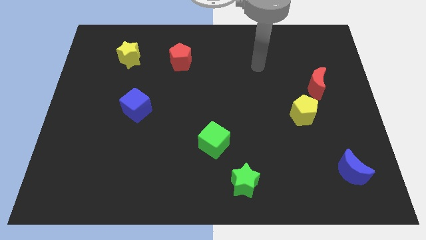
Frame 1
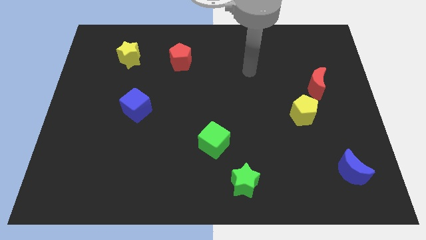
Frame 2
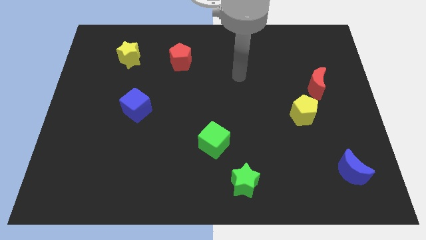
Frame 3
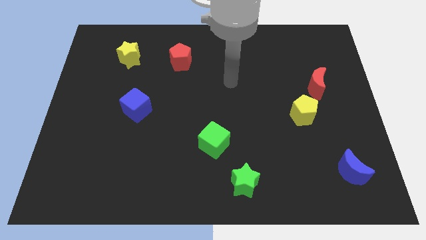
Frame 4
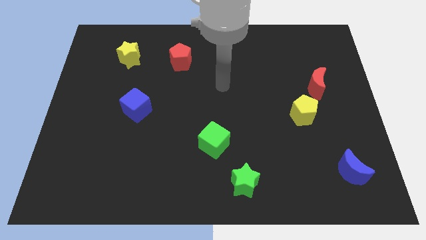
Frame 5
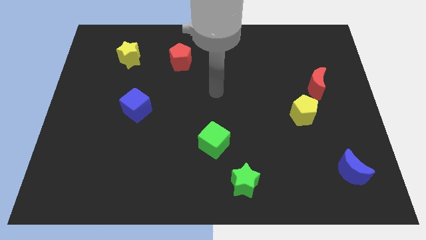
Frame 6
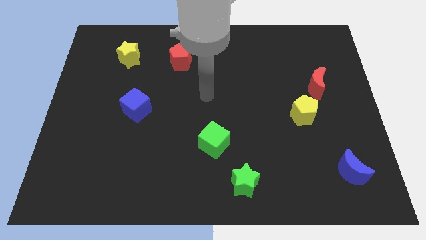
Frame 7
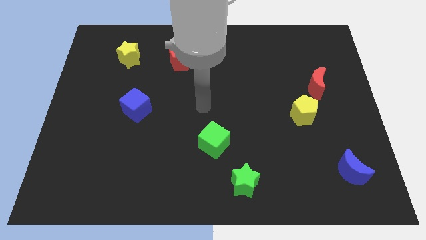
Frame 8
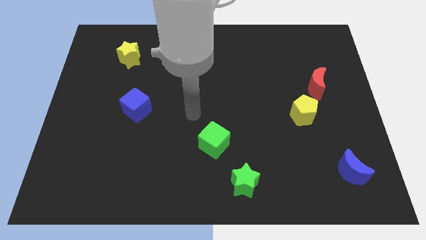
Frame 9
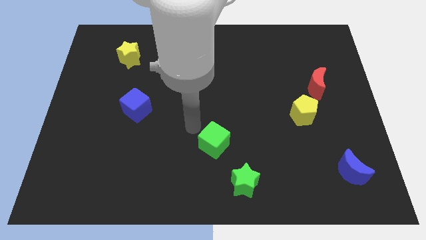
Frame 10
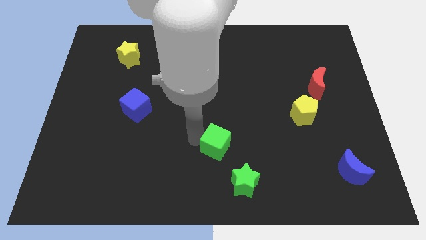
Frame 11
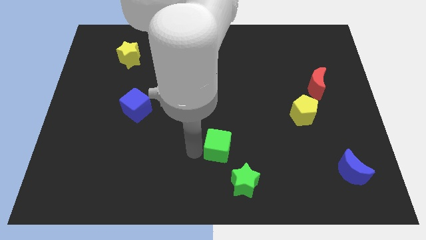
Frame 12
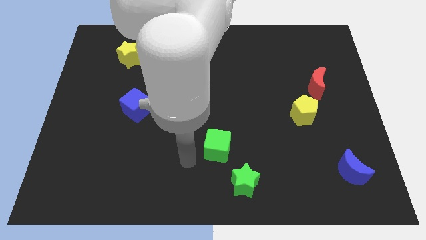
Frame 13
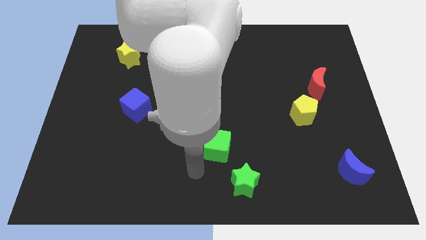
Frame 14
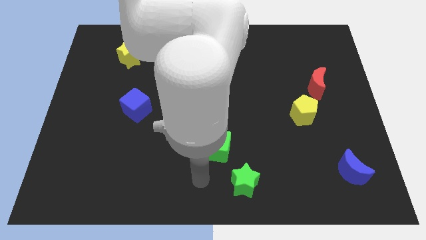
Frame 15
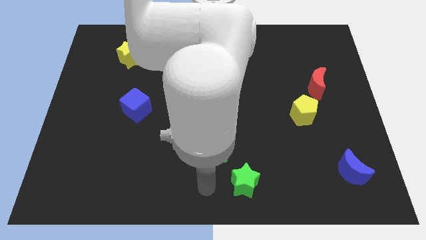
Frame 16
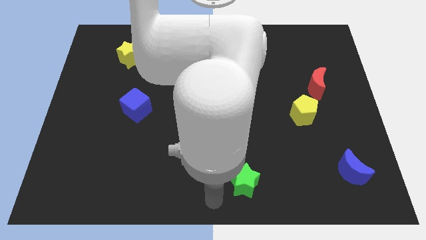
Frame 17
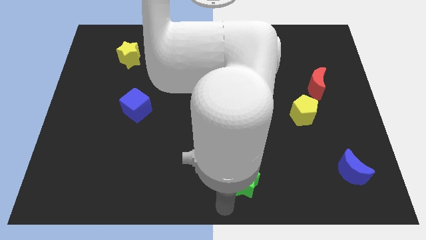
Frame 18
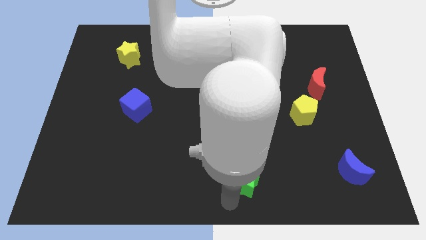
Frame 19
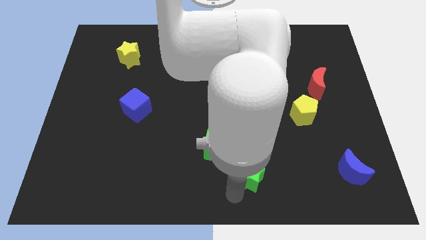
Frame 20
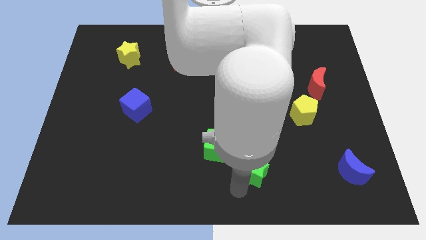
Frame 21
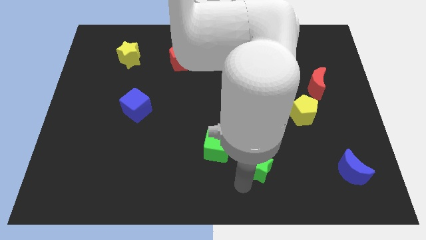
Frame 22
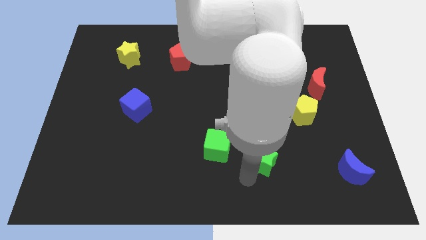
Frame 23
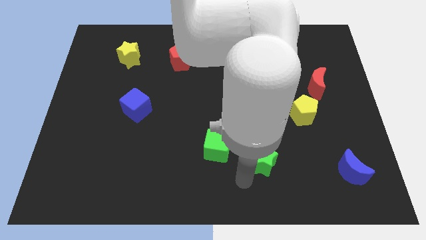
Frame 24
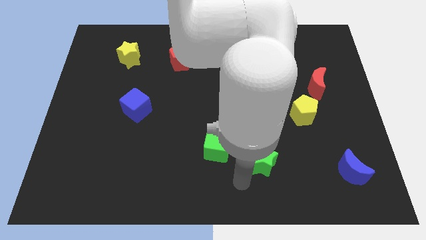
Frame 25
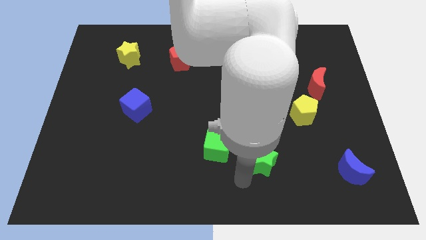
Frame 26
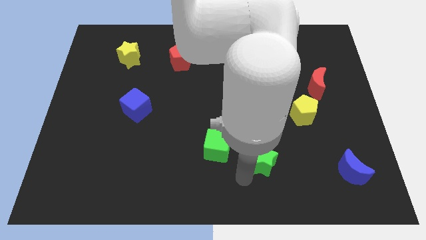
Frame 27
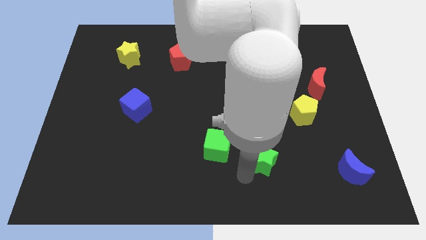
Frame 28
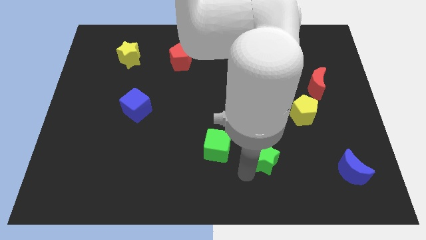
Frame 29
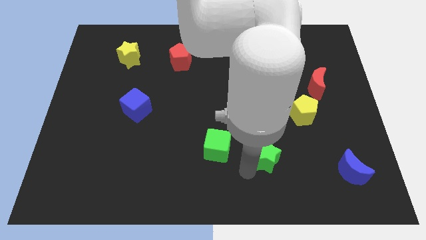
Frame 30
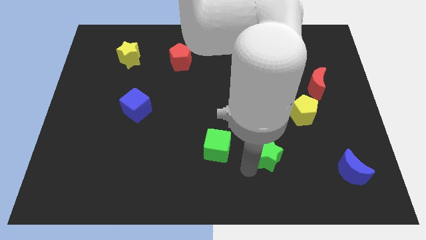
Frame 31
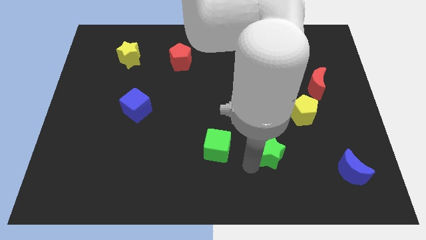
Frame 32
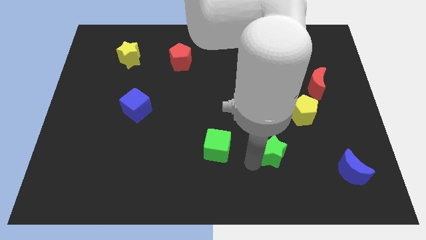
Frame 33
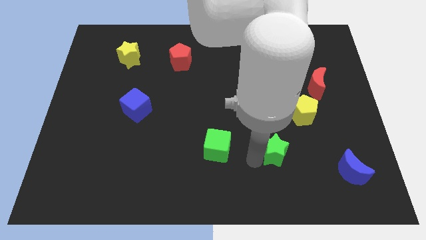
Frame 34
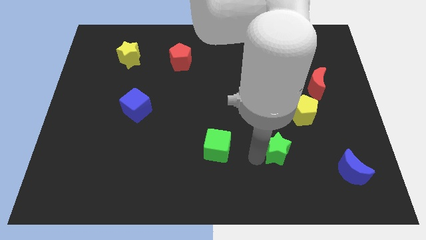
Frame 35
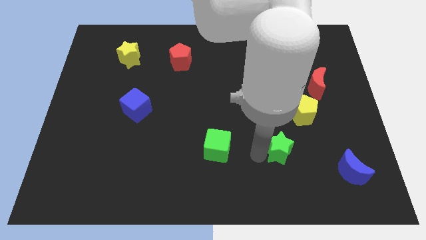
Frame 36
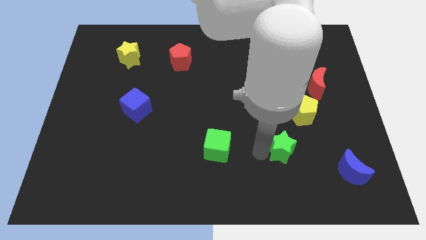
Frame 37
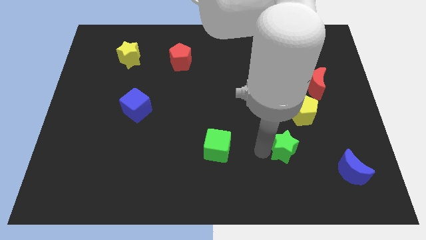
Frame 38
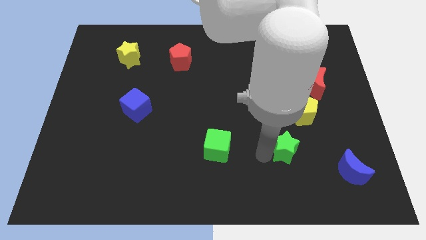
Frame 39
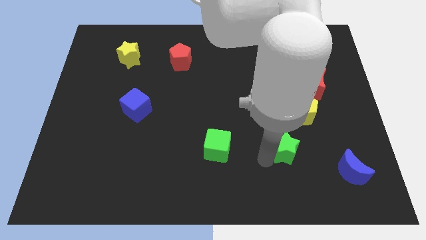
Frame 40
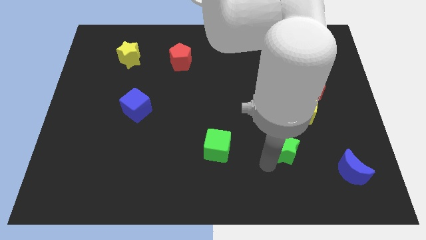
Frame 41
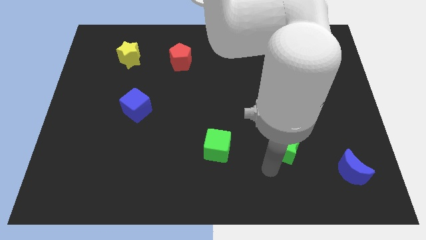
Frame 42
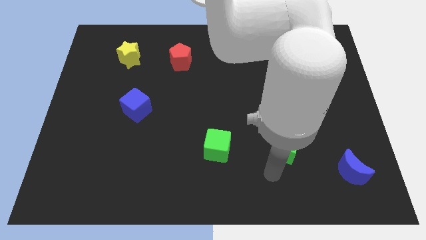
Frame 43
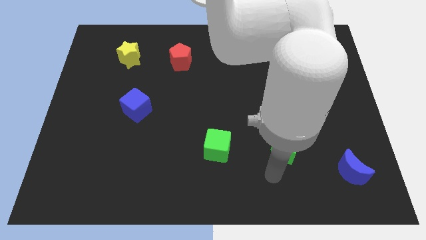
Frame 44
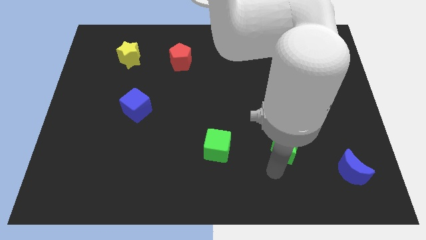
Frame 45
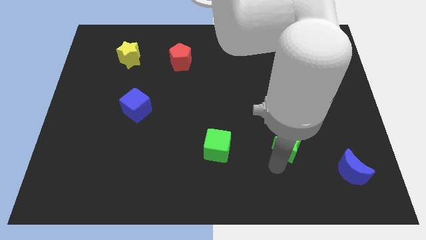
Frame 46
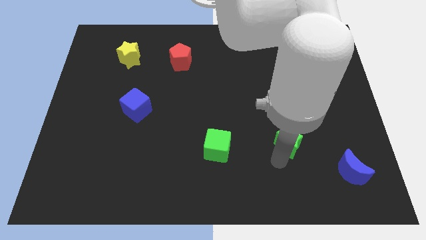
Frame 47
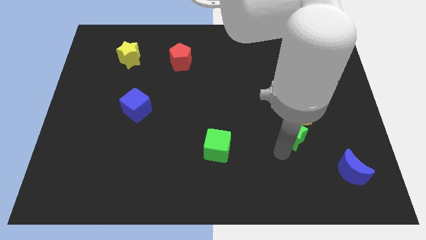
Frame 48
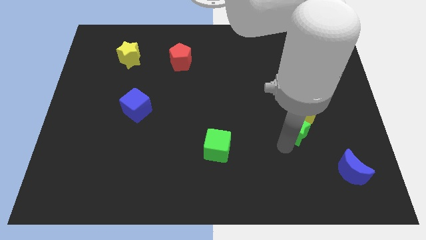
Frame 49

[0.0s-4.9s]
put the green star close to the yellow pentagon

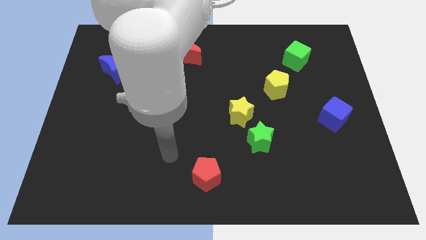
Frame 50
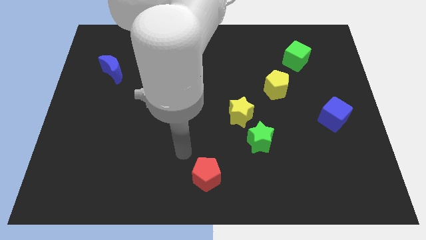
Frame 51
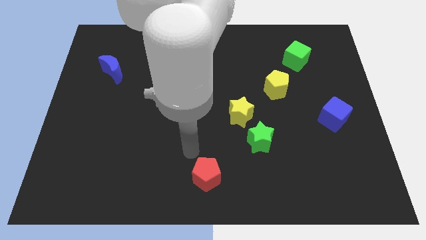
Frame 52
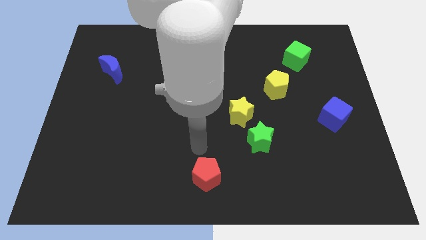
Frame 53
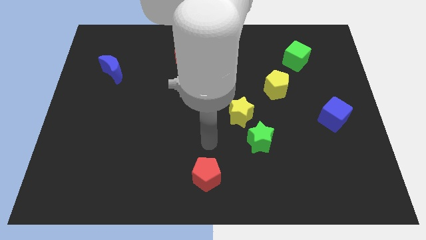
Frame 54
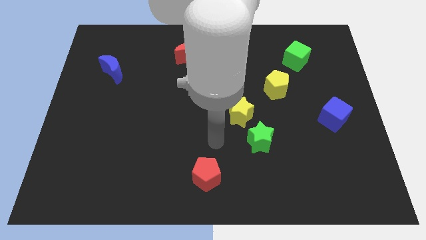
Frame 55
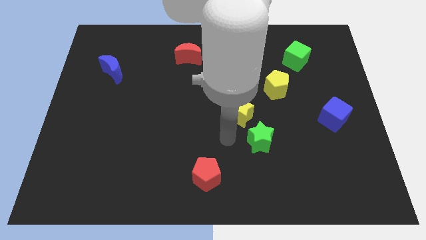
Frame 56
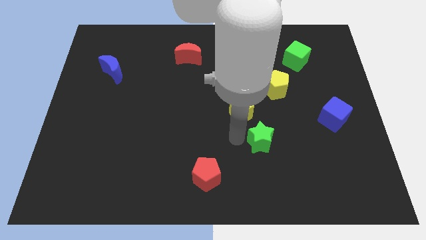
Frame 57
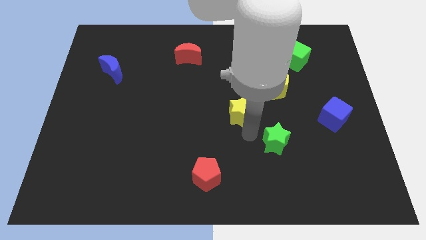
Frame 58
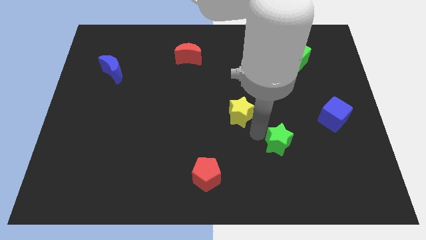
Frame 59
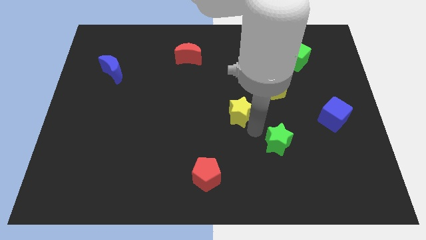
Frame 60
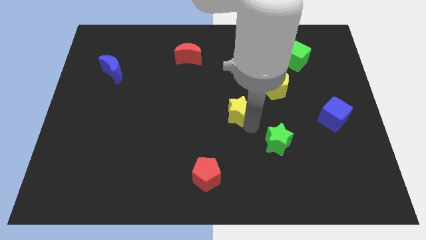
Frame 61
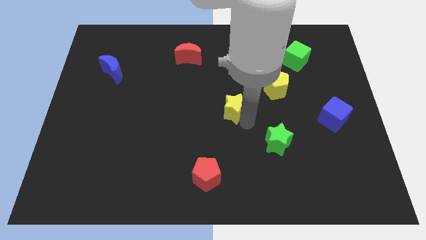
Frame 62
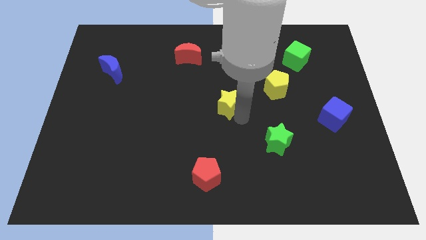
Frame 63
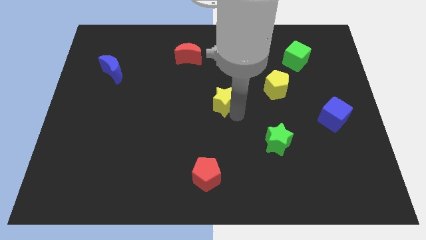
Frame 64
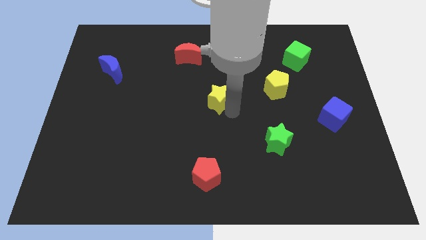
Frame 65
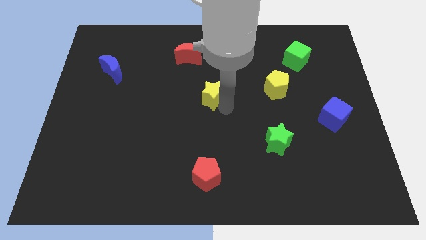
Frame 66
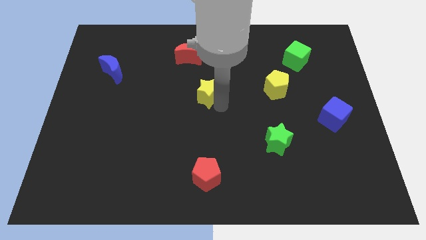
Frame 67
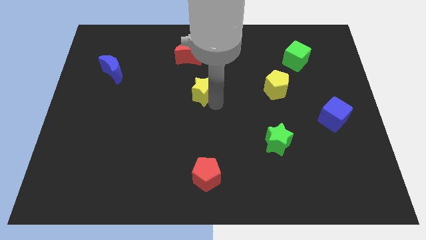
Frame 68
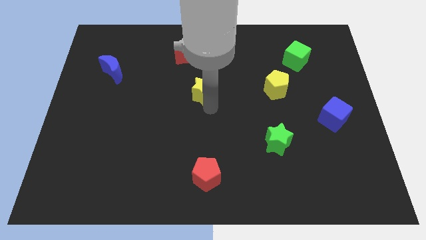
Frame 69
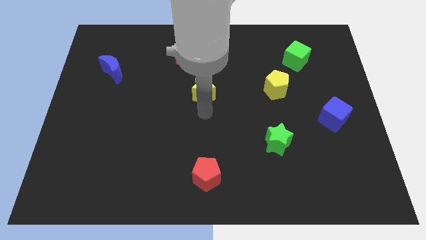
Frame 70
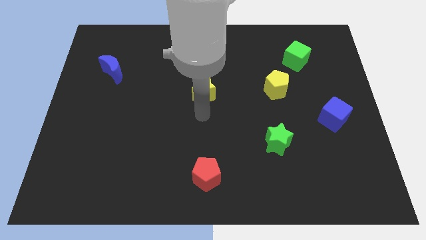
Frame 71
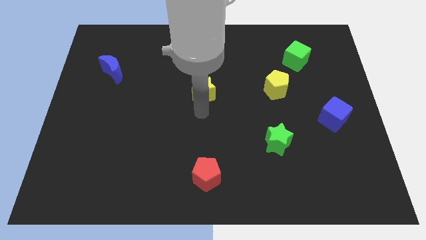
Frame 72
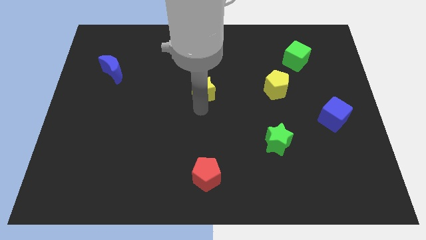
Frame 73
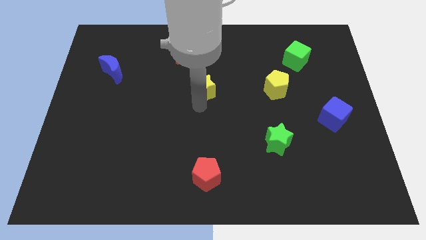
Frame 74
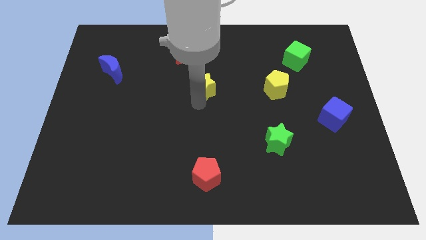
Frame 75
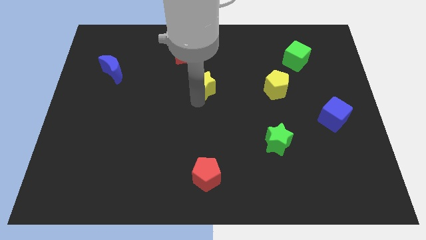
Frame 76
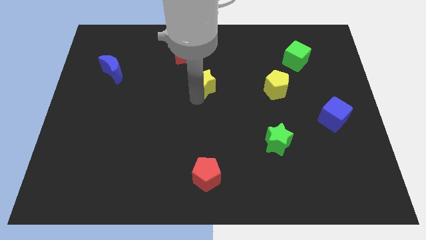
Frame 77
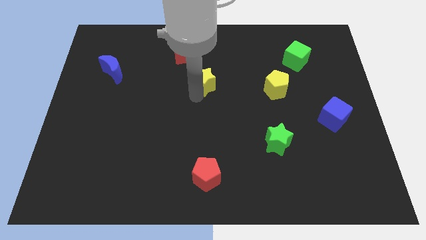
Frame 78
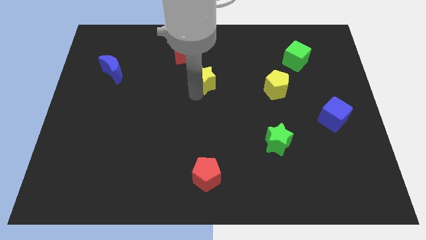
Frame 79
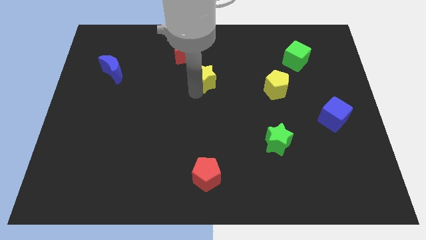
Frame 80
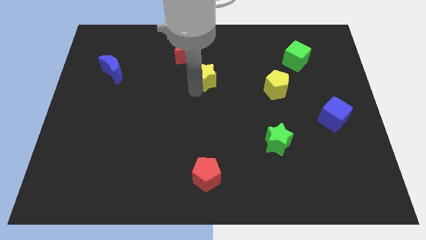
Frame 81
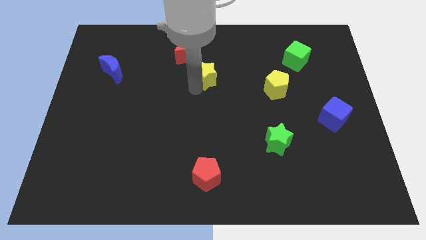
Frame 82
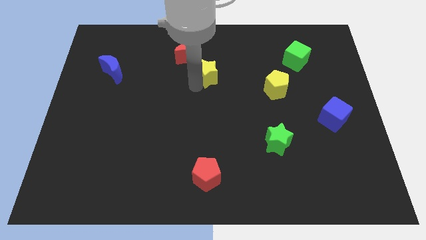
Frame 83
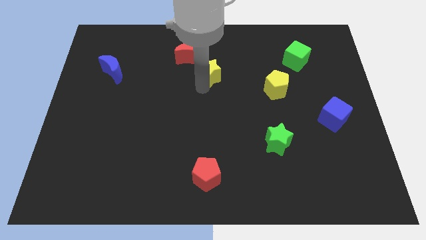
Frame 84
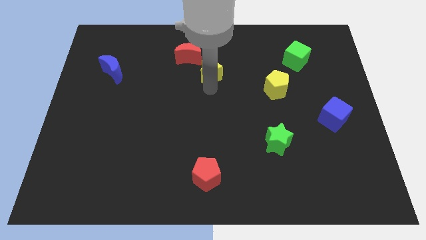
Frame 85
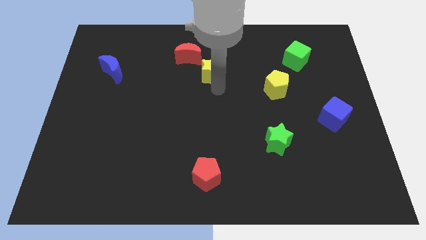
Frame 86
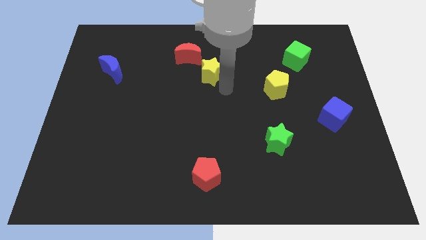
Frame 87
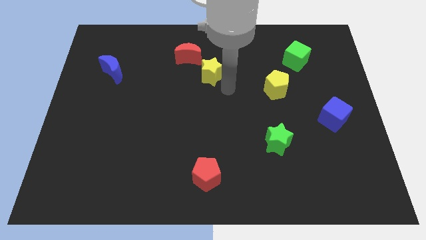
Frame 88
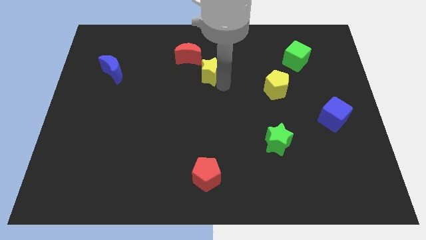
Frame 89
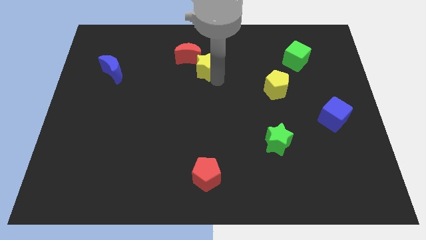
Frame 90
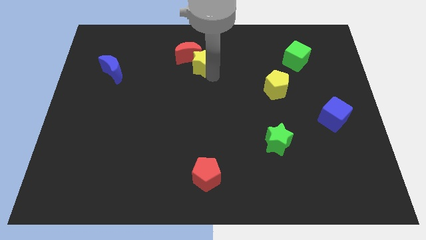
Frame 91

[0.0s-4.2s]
push the yellow star next to the red moon
